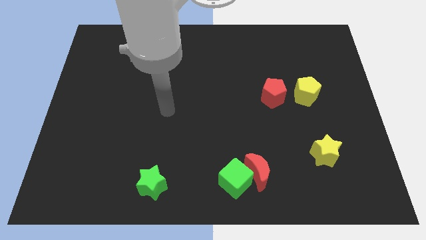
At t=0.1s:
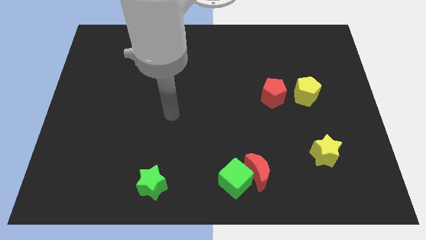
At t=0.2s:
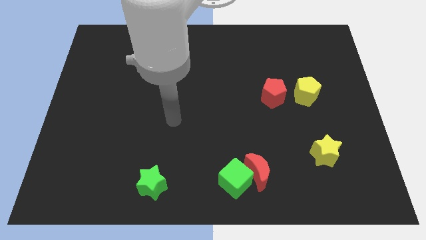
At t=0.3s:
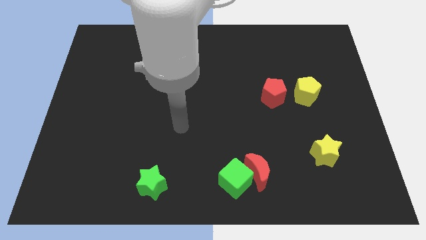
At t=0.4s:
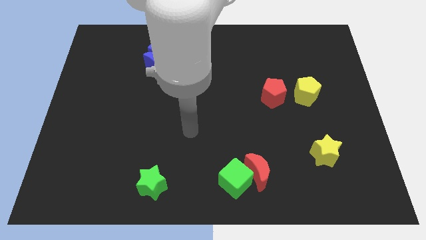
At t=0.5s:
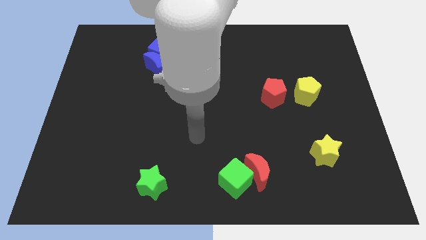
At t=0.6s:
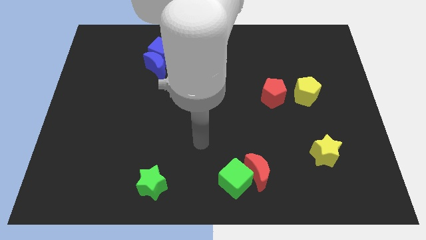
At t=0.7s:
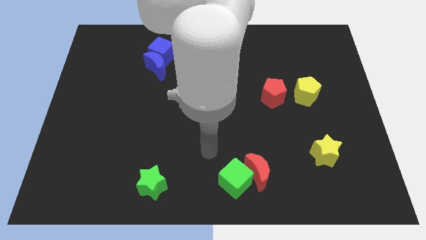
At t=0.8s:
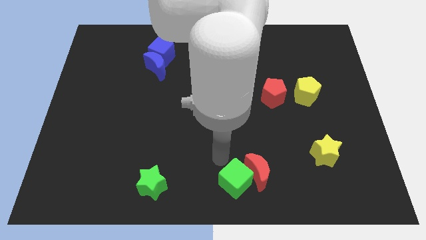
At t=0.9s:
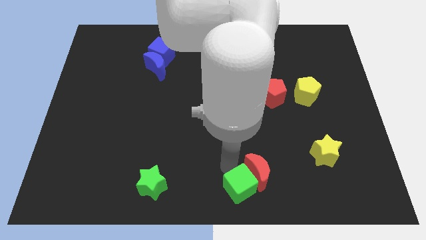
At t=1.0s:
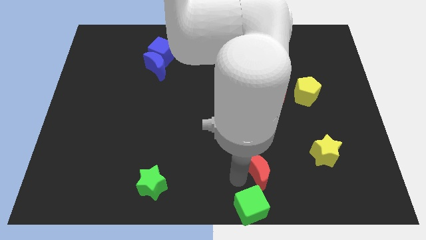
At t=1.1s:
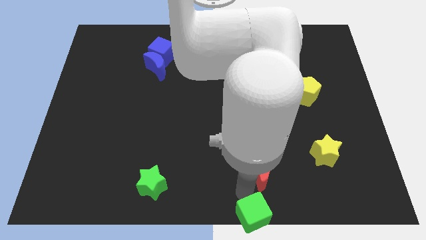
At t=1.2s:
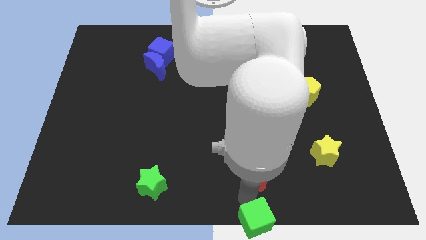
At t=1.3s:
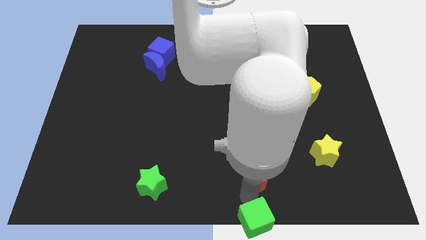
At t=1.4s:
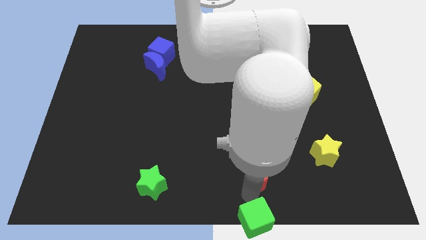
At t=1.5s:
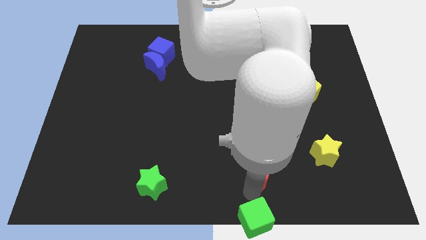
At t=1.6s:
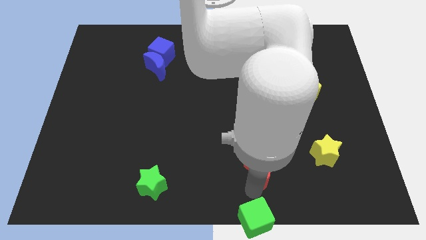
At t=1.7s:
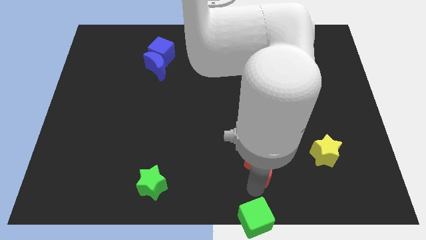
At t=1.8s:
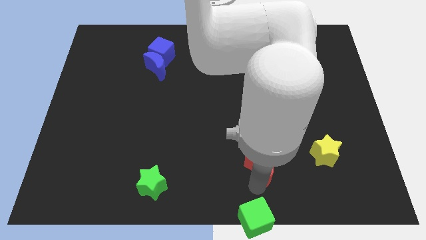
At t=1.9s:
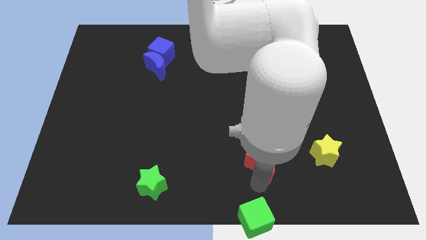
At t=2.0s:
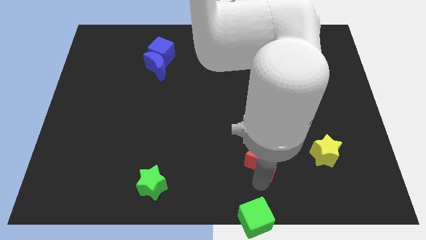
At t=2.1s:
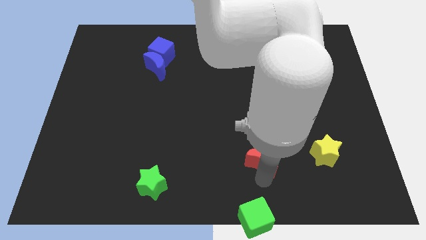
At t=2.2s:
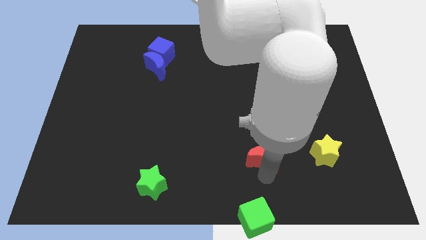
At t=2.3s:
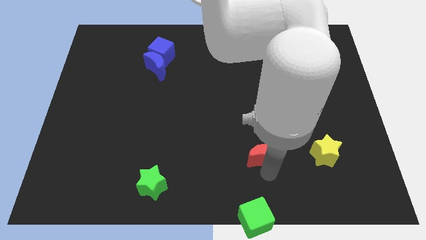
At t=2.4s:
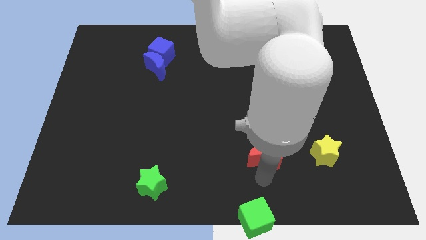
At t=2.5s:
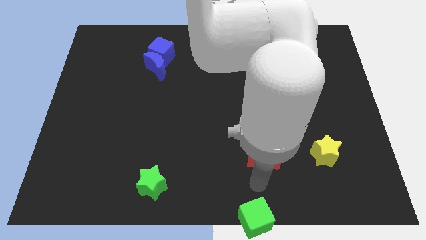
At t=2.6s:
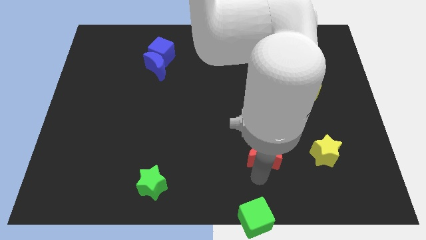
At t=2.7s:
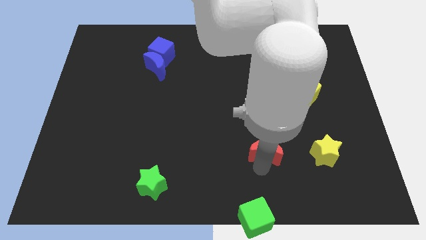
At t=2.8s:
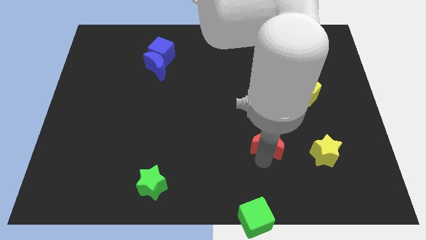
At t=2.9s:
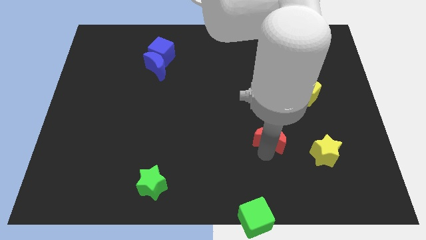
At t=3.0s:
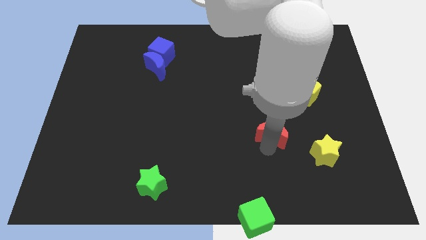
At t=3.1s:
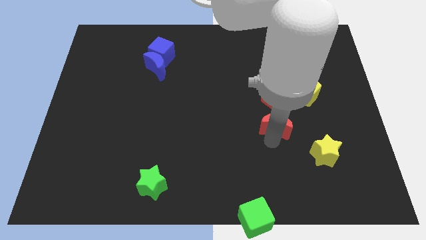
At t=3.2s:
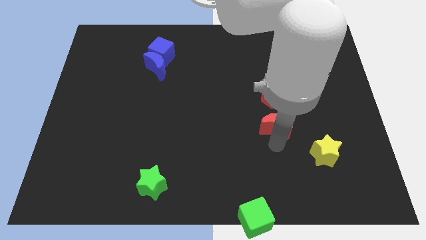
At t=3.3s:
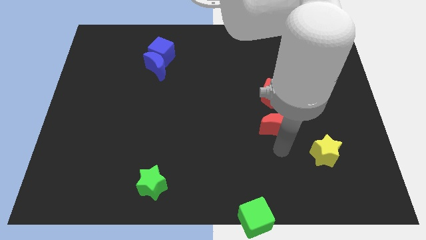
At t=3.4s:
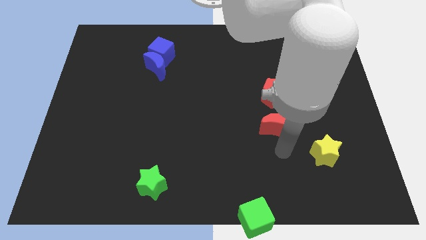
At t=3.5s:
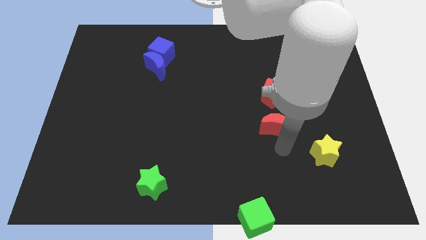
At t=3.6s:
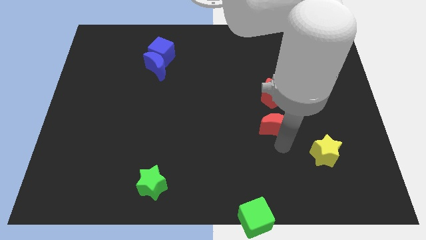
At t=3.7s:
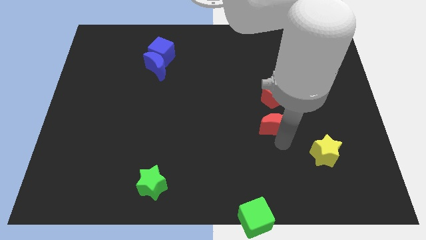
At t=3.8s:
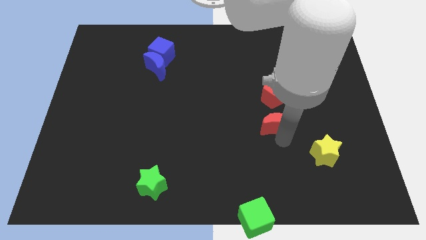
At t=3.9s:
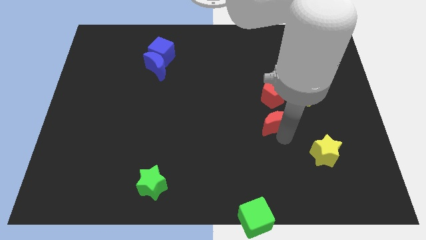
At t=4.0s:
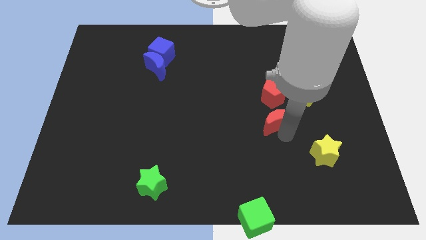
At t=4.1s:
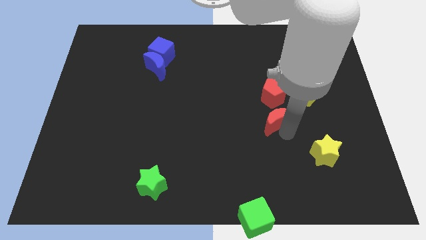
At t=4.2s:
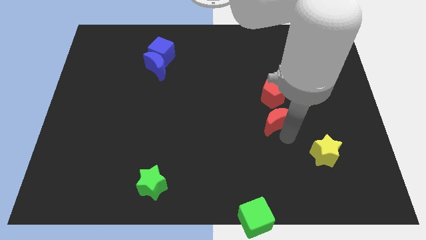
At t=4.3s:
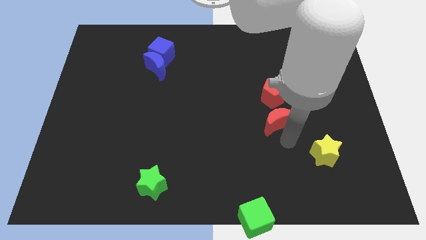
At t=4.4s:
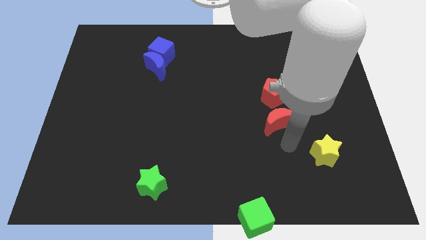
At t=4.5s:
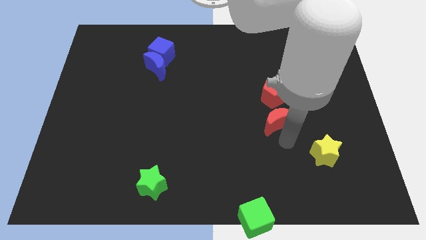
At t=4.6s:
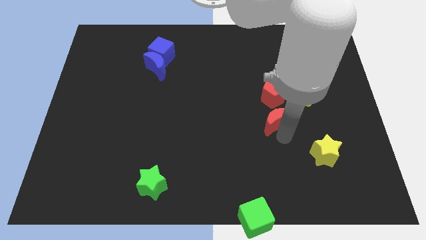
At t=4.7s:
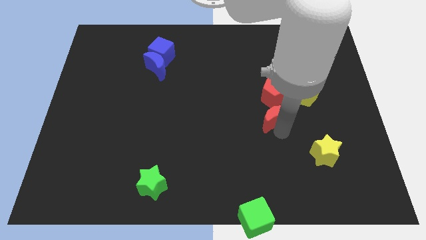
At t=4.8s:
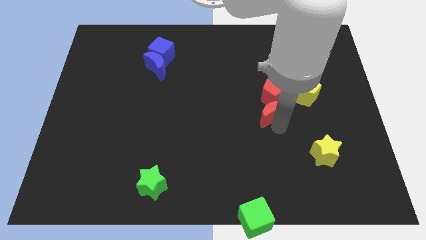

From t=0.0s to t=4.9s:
put the red moon towards the red pentagon

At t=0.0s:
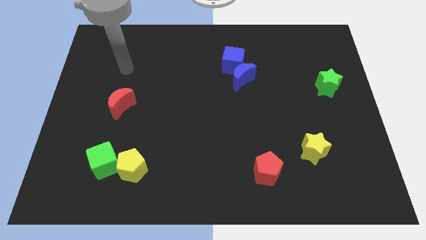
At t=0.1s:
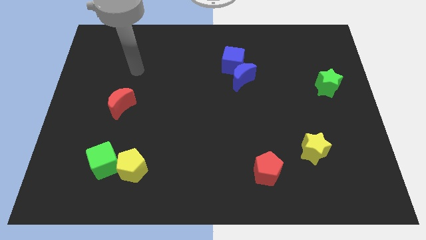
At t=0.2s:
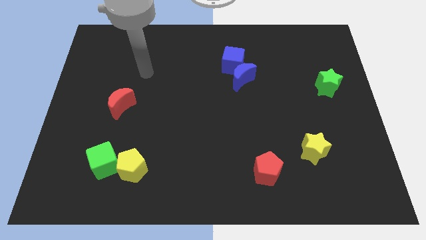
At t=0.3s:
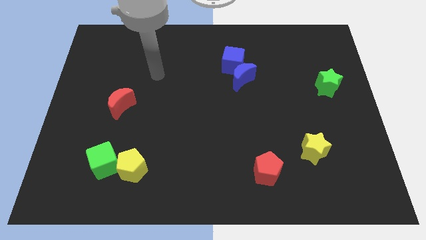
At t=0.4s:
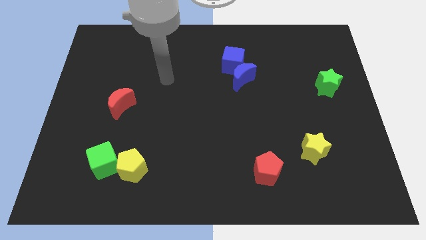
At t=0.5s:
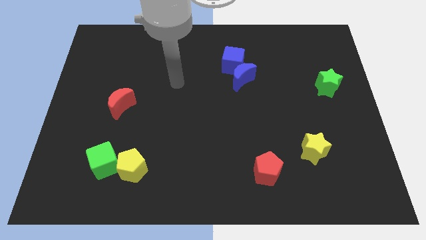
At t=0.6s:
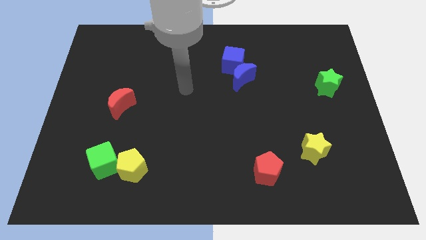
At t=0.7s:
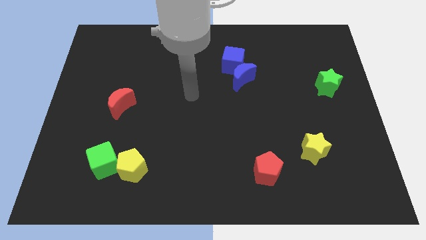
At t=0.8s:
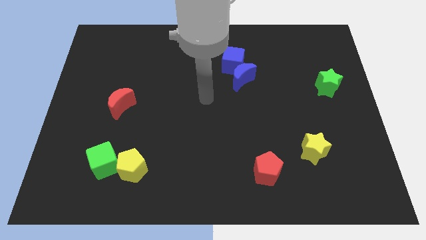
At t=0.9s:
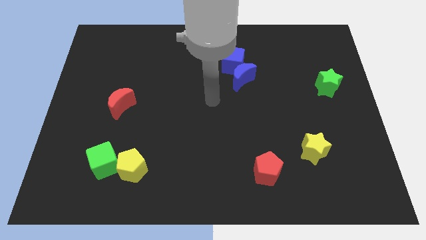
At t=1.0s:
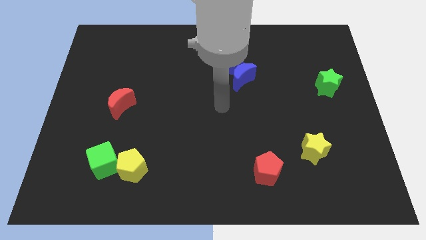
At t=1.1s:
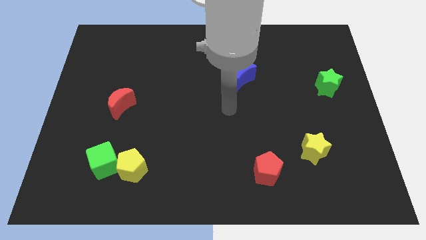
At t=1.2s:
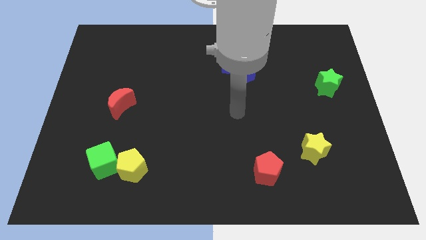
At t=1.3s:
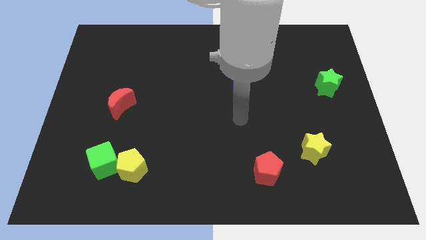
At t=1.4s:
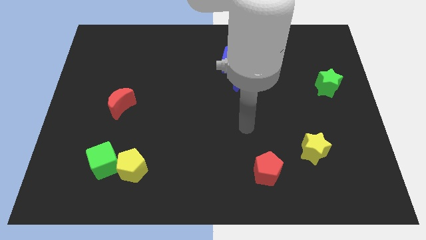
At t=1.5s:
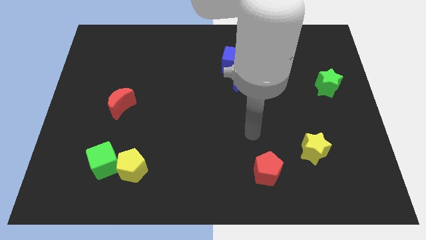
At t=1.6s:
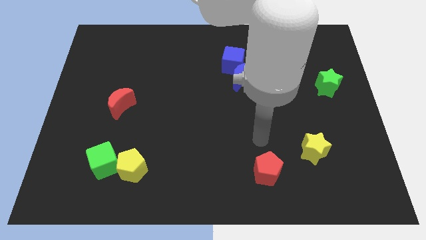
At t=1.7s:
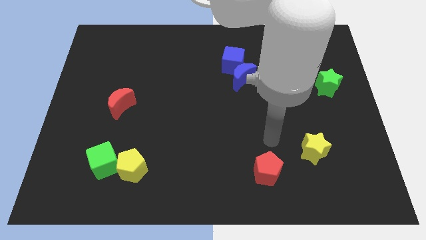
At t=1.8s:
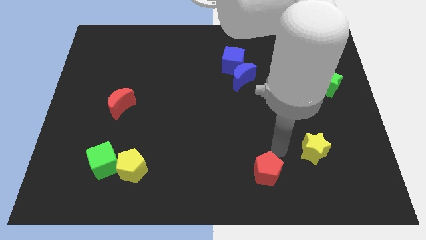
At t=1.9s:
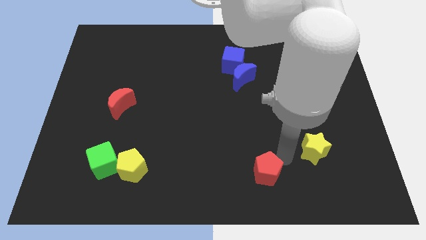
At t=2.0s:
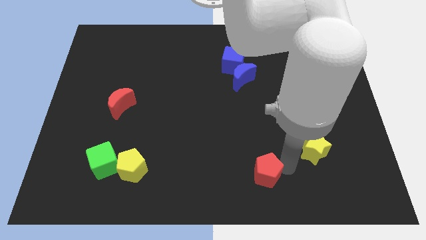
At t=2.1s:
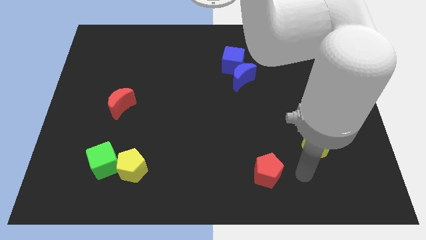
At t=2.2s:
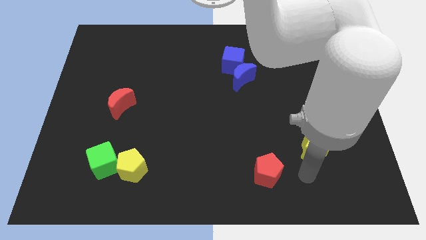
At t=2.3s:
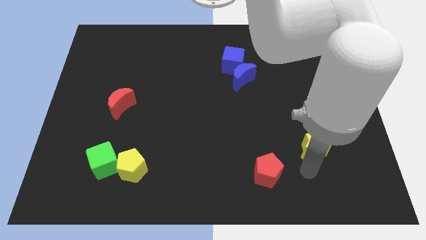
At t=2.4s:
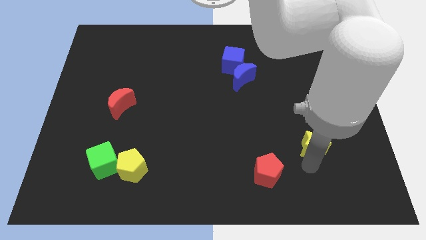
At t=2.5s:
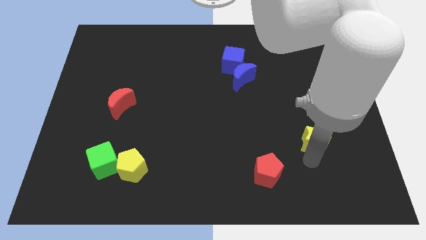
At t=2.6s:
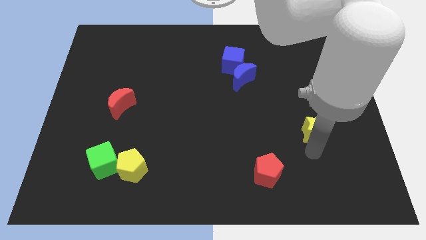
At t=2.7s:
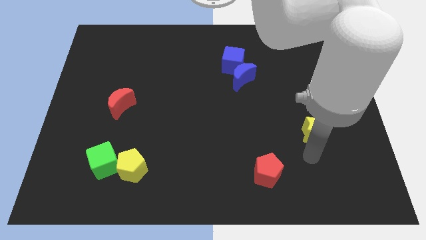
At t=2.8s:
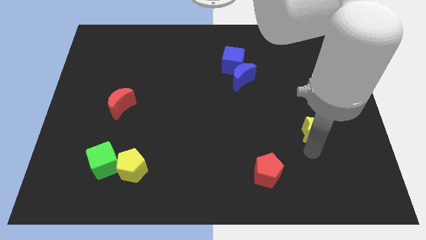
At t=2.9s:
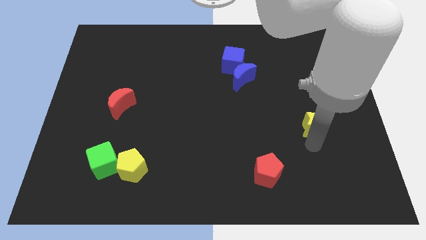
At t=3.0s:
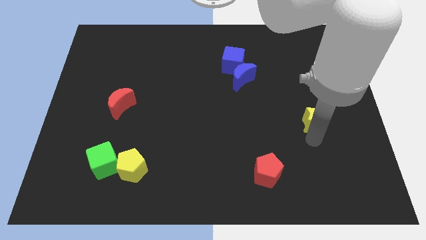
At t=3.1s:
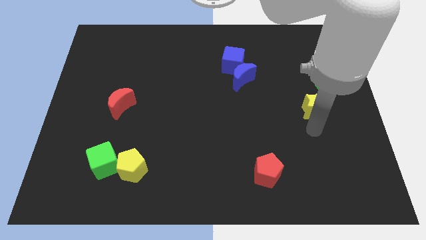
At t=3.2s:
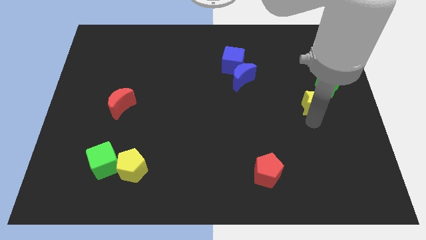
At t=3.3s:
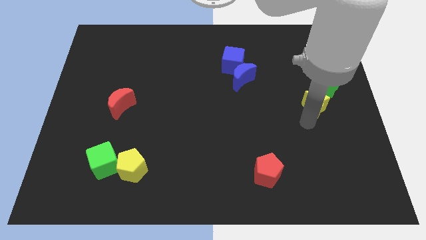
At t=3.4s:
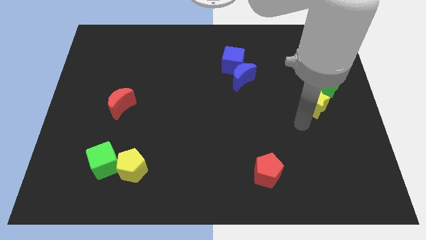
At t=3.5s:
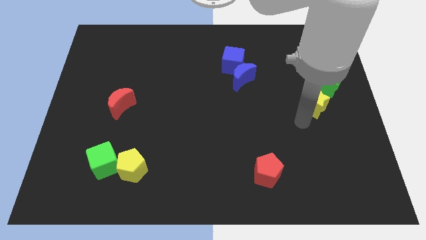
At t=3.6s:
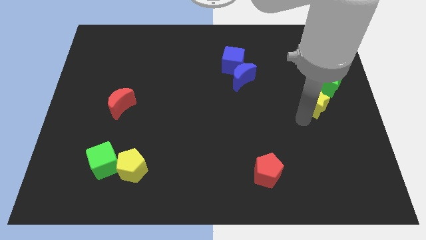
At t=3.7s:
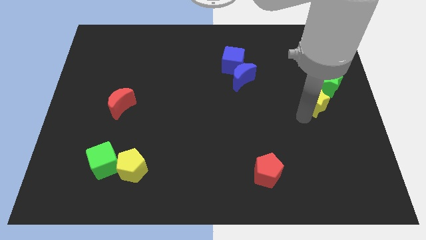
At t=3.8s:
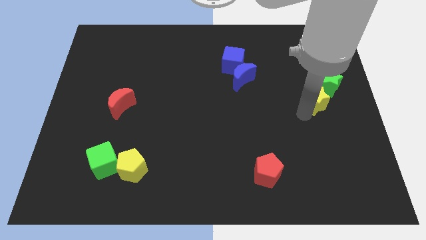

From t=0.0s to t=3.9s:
push the yellow star next to the green star
